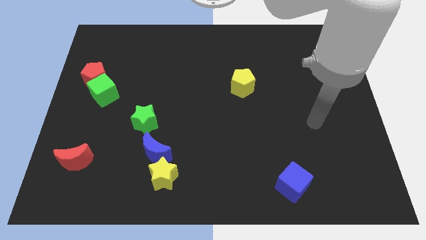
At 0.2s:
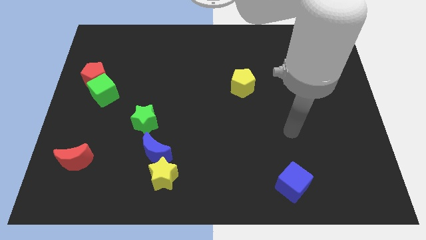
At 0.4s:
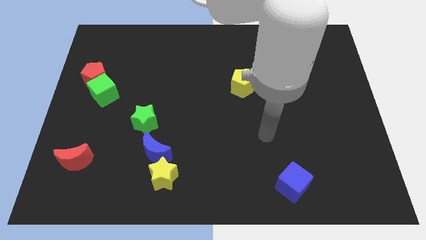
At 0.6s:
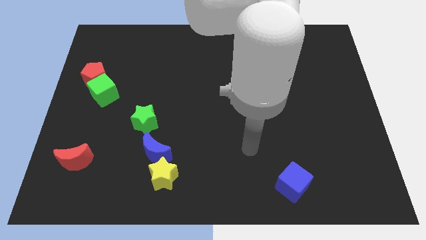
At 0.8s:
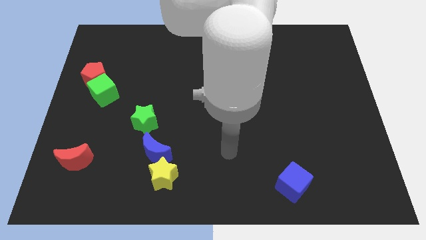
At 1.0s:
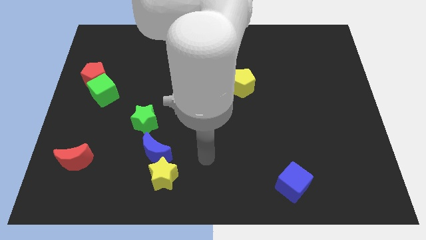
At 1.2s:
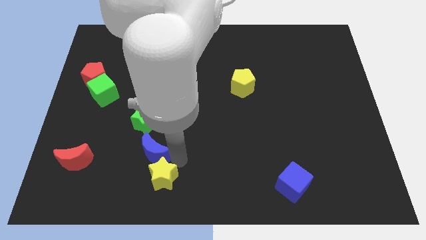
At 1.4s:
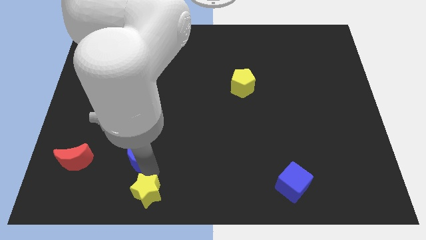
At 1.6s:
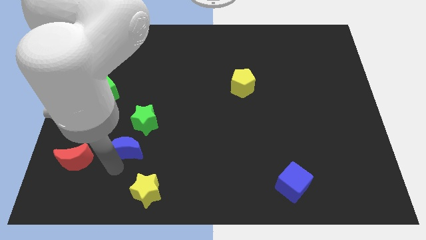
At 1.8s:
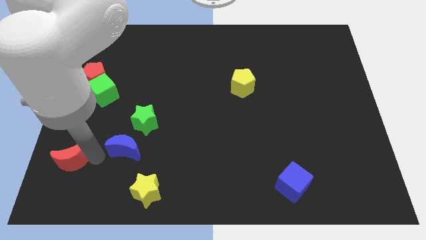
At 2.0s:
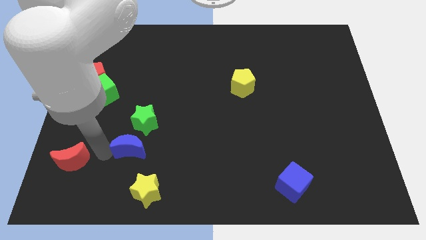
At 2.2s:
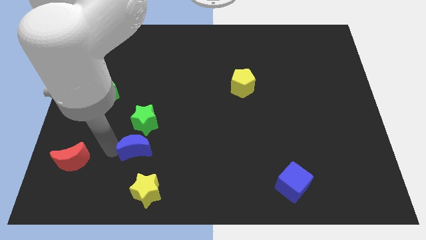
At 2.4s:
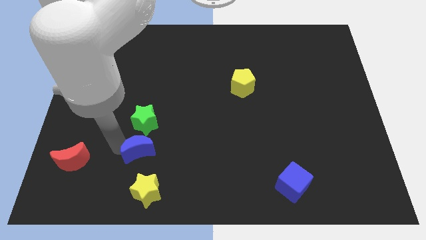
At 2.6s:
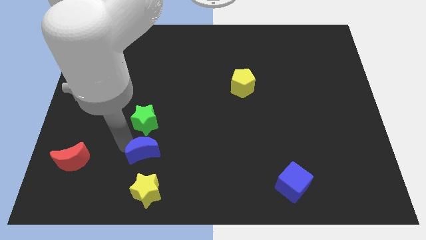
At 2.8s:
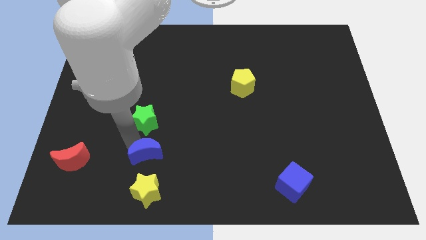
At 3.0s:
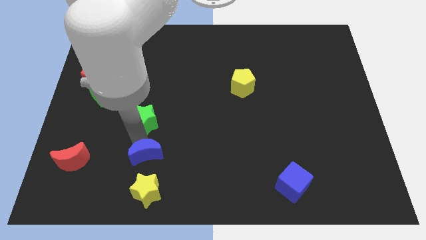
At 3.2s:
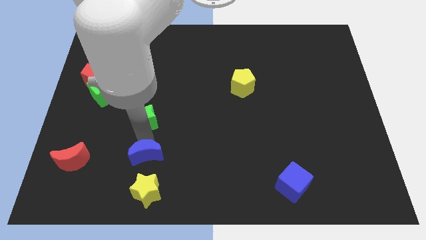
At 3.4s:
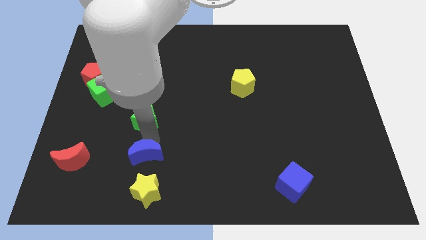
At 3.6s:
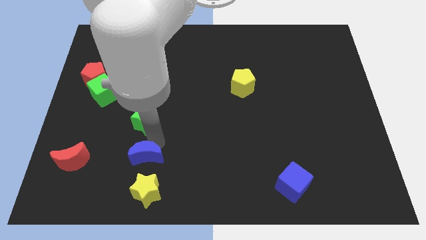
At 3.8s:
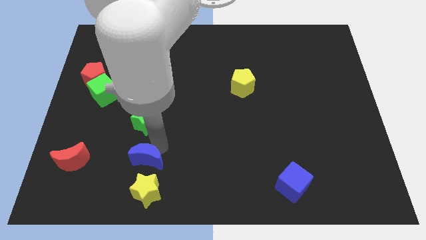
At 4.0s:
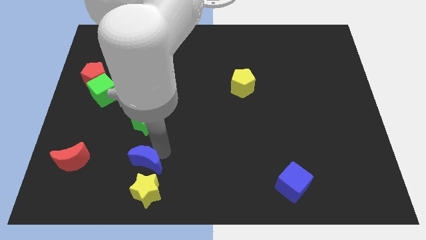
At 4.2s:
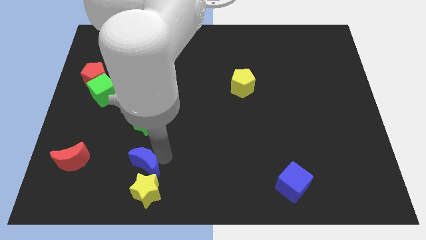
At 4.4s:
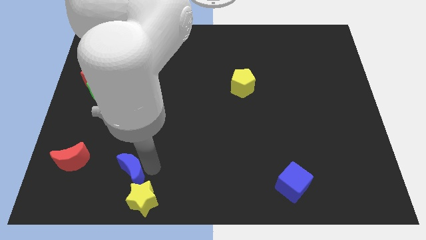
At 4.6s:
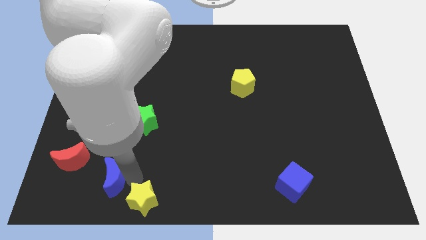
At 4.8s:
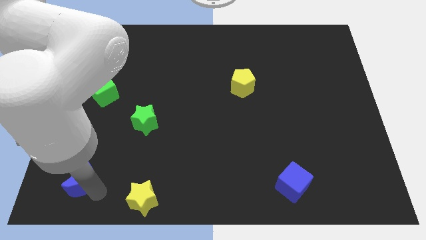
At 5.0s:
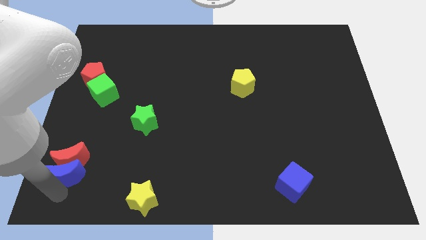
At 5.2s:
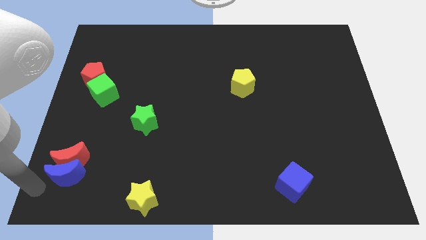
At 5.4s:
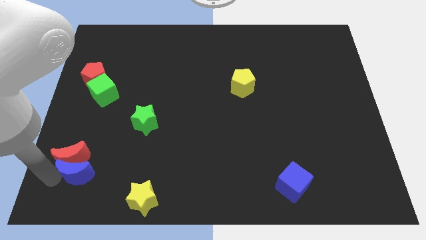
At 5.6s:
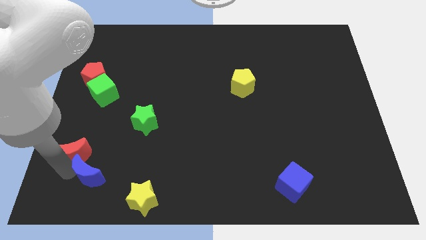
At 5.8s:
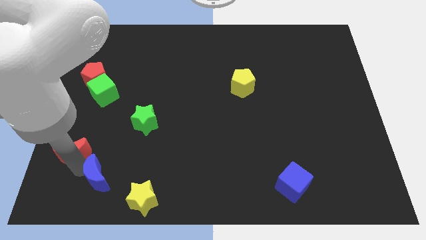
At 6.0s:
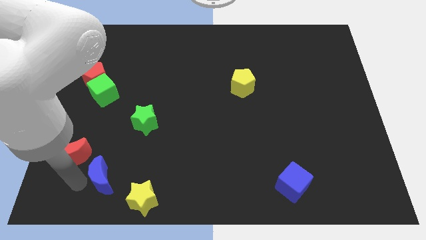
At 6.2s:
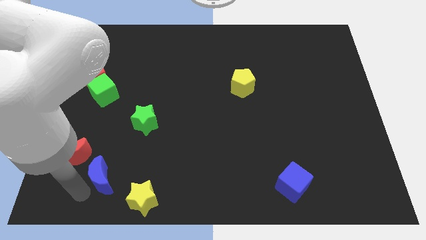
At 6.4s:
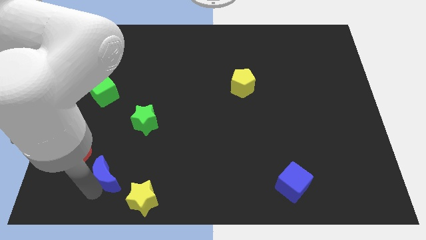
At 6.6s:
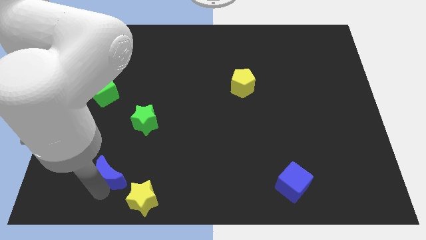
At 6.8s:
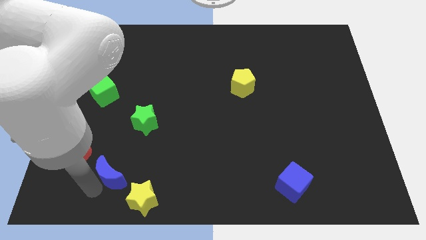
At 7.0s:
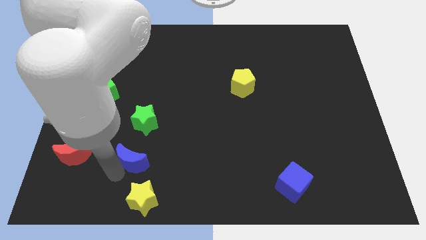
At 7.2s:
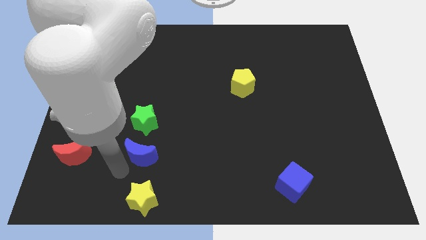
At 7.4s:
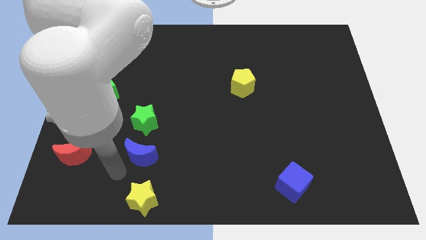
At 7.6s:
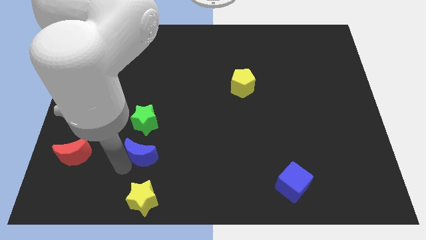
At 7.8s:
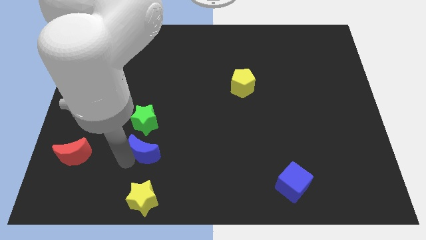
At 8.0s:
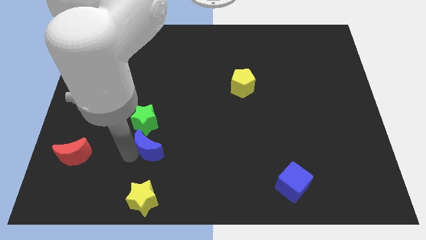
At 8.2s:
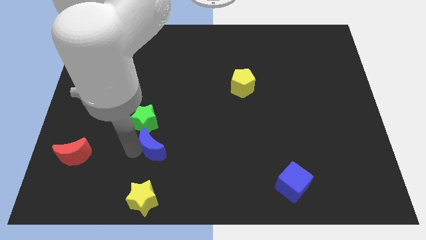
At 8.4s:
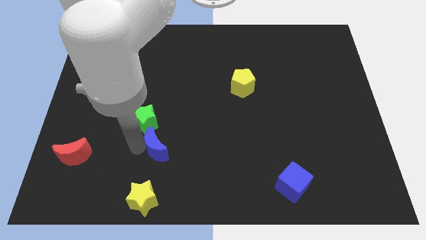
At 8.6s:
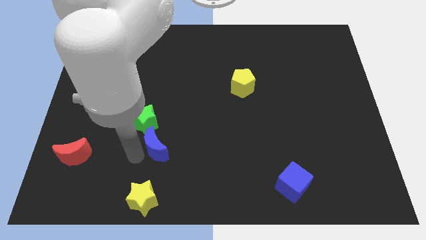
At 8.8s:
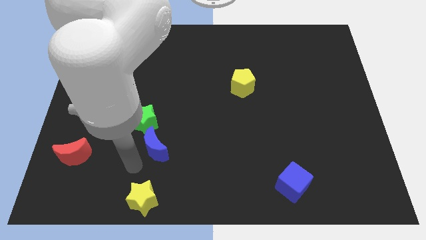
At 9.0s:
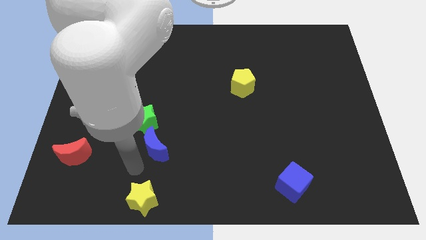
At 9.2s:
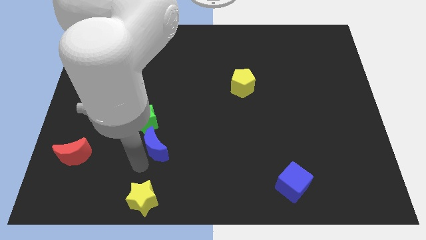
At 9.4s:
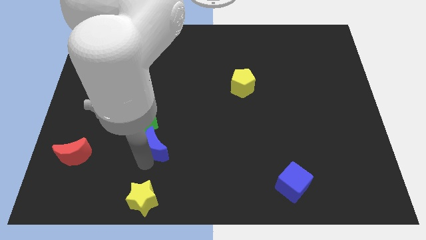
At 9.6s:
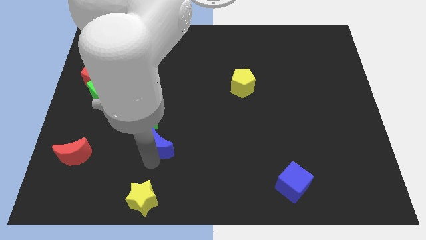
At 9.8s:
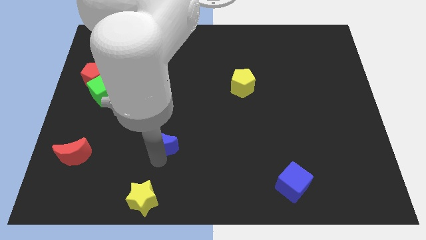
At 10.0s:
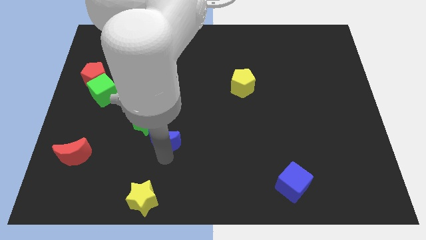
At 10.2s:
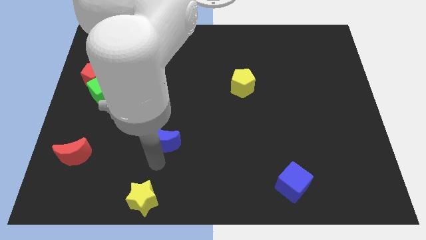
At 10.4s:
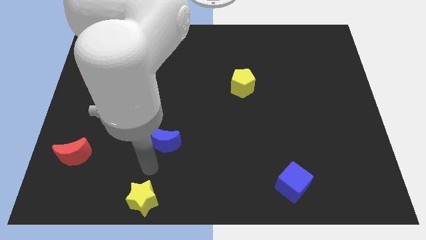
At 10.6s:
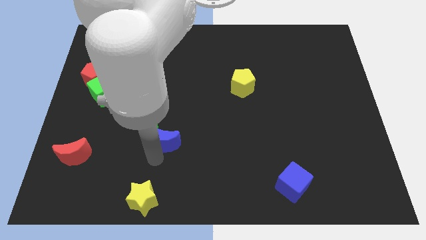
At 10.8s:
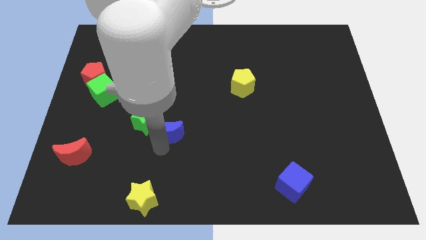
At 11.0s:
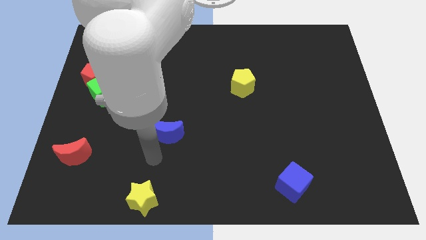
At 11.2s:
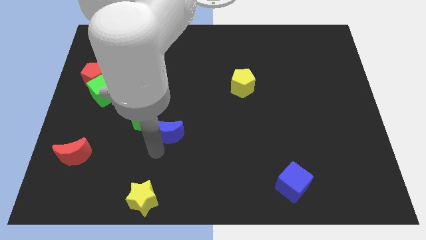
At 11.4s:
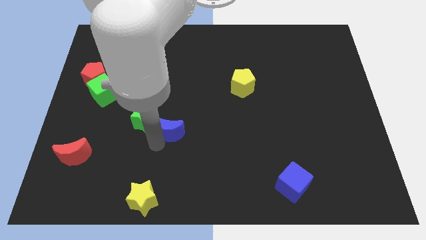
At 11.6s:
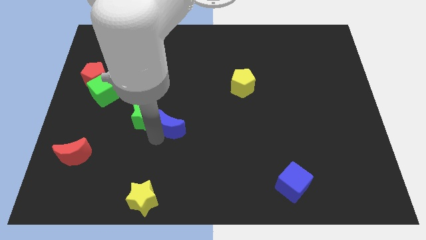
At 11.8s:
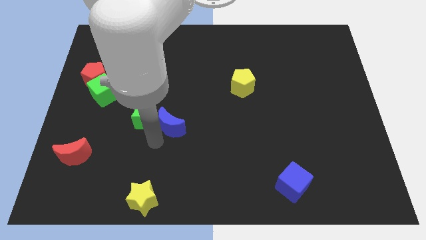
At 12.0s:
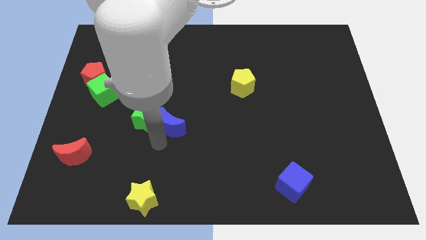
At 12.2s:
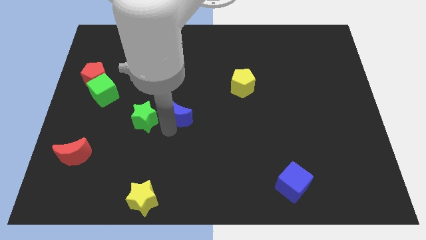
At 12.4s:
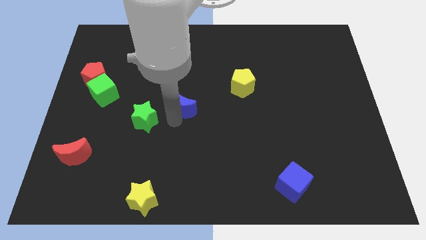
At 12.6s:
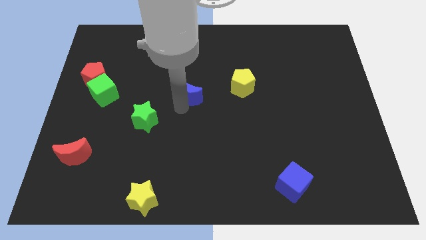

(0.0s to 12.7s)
slide the blue moon to the left side of the yellow pentagon

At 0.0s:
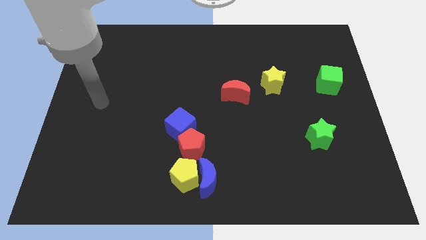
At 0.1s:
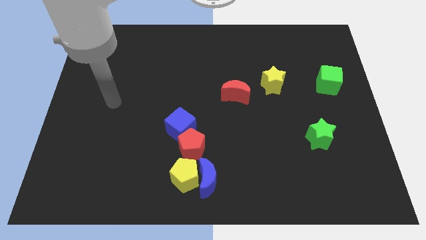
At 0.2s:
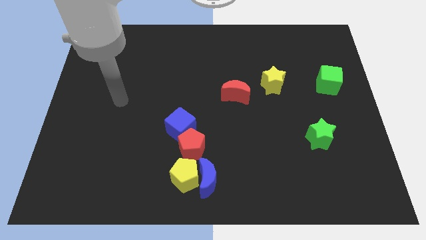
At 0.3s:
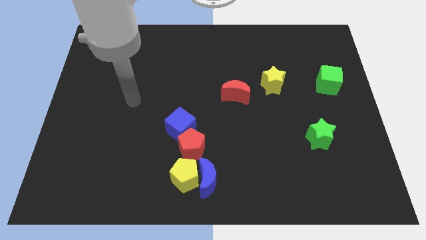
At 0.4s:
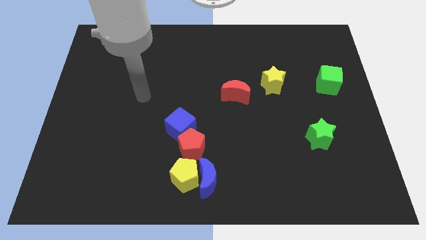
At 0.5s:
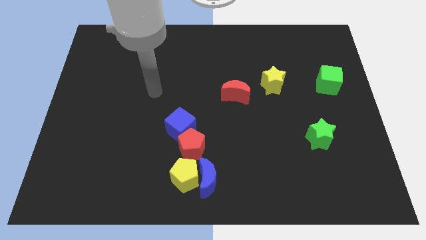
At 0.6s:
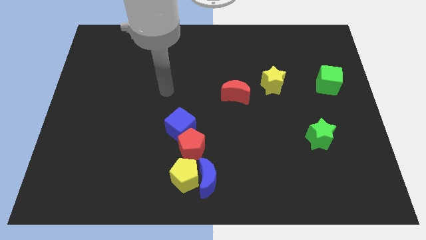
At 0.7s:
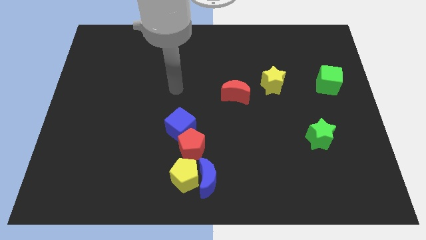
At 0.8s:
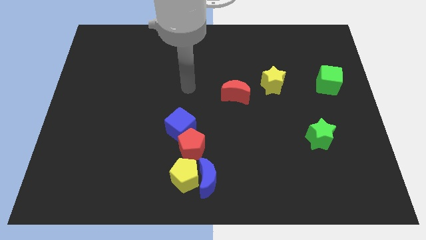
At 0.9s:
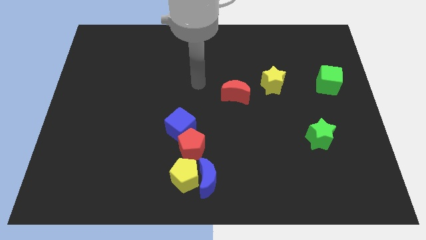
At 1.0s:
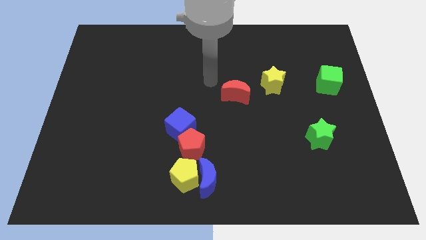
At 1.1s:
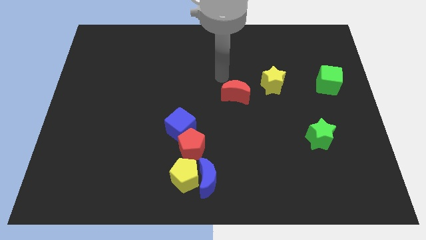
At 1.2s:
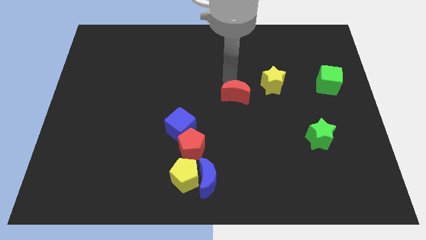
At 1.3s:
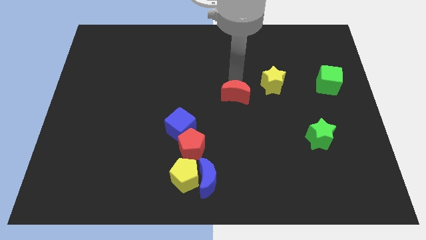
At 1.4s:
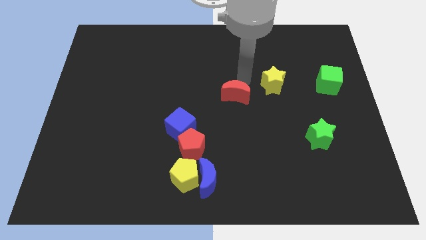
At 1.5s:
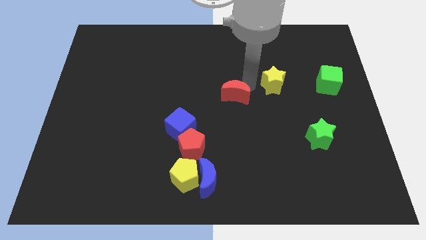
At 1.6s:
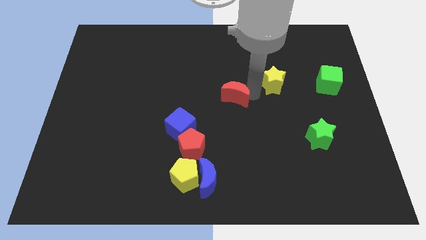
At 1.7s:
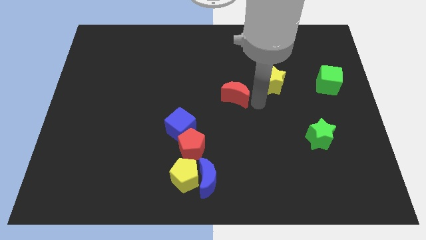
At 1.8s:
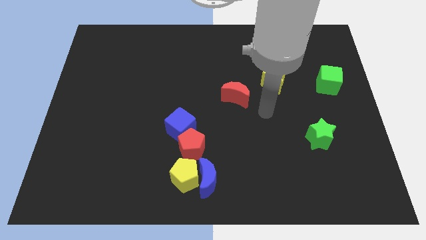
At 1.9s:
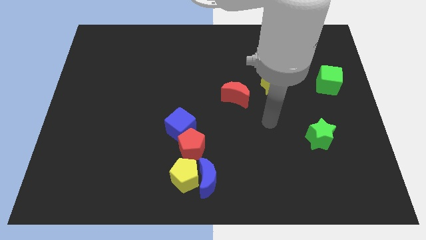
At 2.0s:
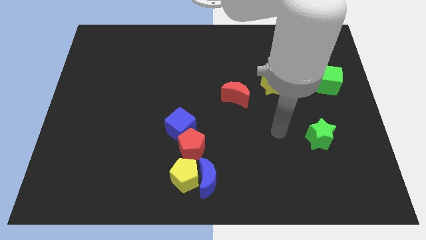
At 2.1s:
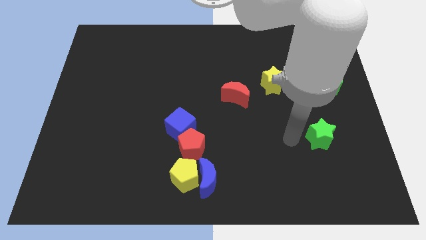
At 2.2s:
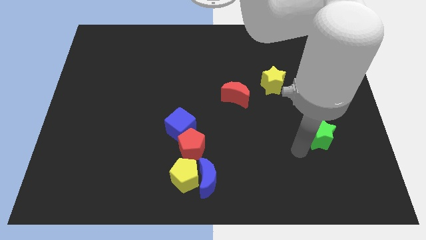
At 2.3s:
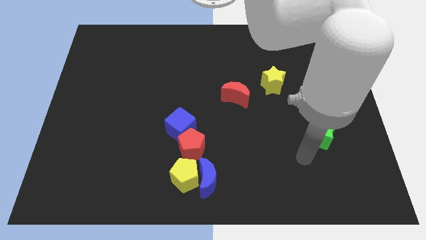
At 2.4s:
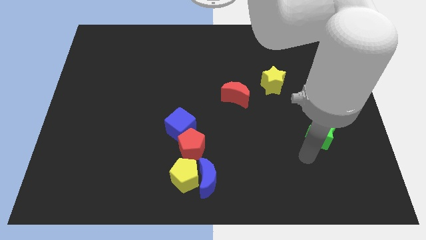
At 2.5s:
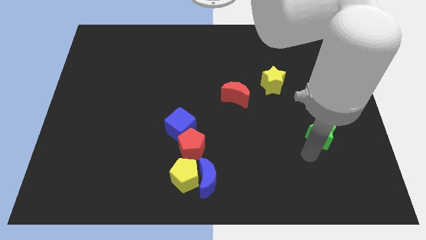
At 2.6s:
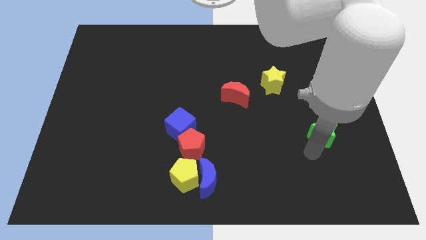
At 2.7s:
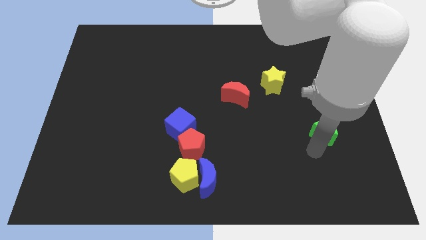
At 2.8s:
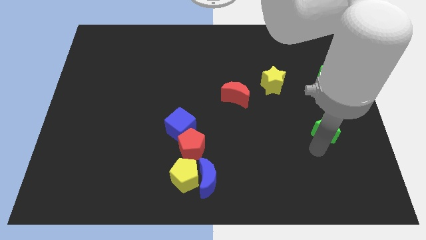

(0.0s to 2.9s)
push the green star below the green cube
